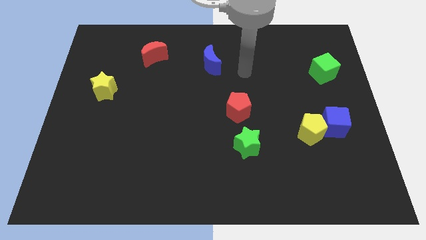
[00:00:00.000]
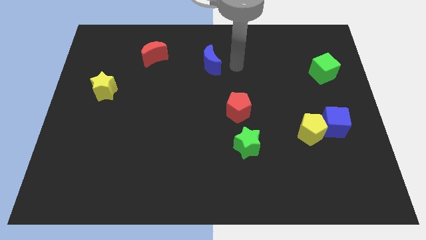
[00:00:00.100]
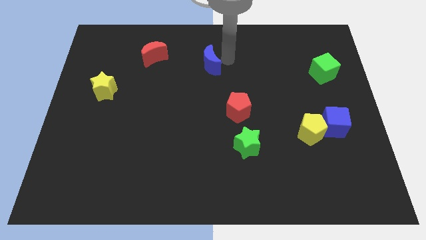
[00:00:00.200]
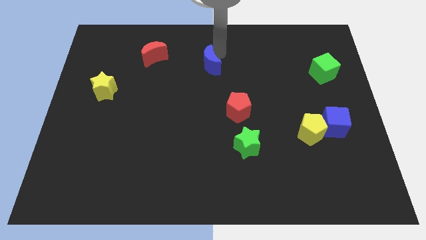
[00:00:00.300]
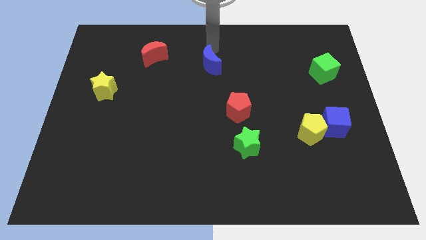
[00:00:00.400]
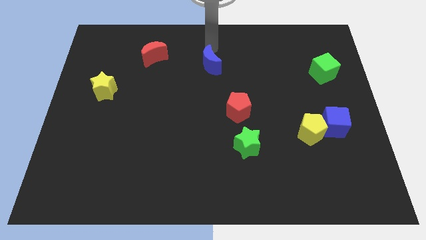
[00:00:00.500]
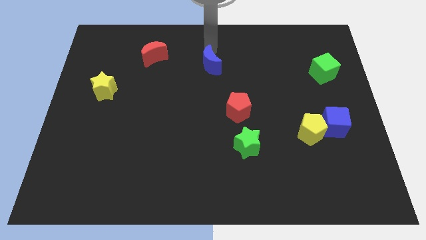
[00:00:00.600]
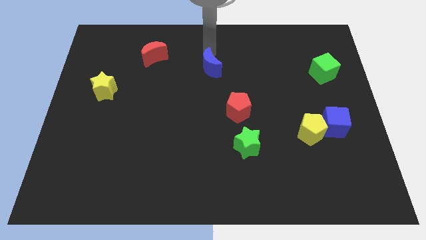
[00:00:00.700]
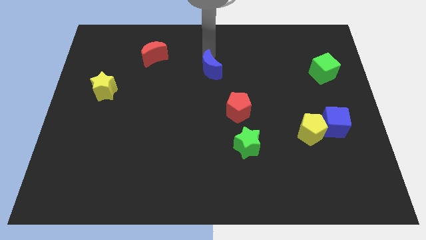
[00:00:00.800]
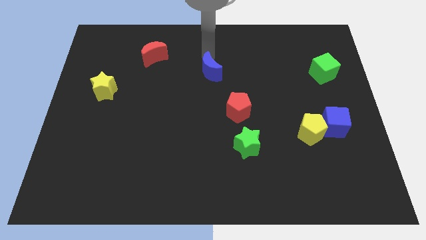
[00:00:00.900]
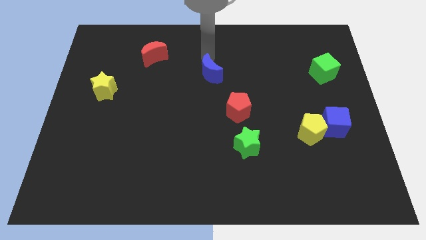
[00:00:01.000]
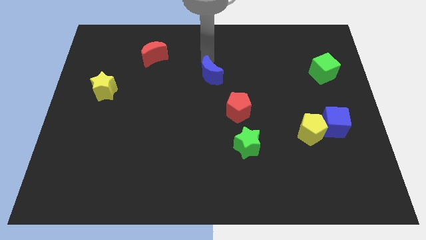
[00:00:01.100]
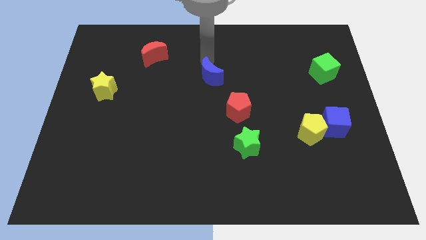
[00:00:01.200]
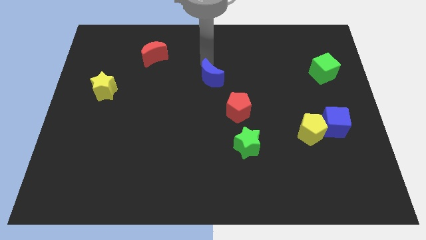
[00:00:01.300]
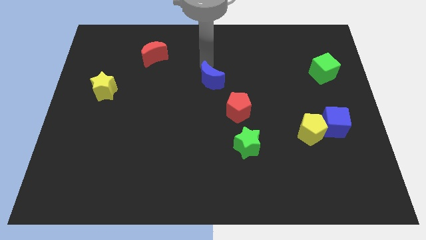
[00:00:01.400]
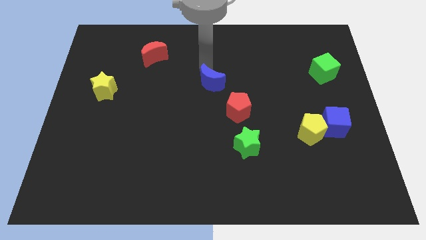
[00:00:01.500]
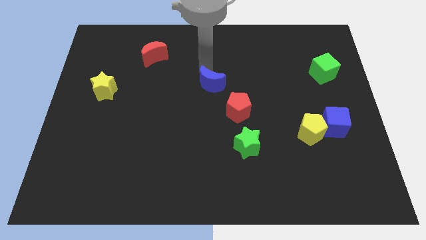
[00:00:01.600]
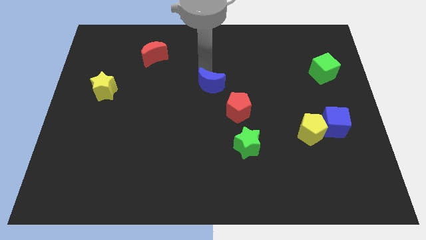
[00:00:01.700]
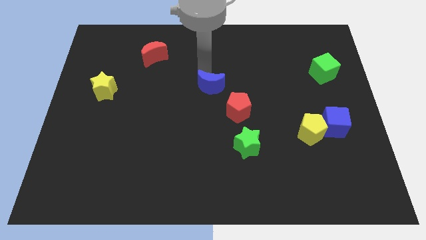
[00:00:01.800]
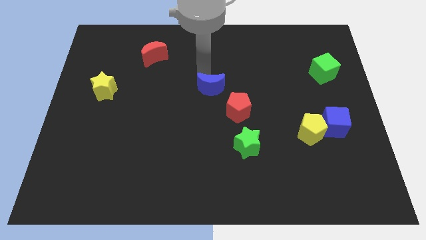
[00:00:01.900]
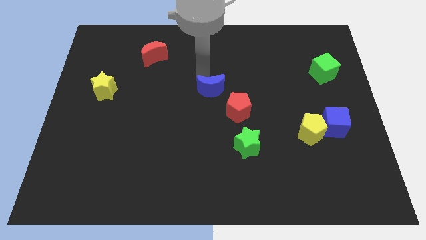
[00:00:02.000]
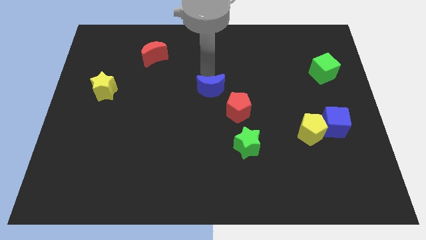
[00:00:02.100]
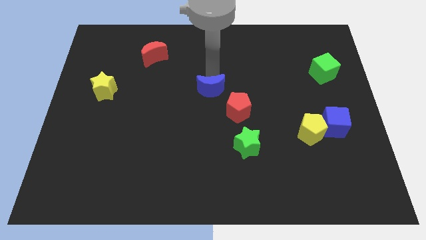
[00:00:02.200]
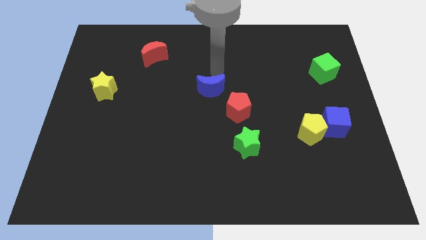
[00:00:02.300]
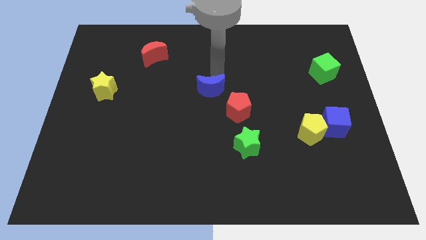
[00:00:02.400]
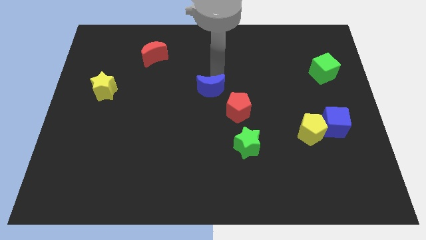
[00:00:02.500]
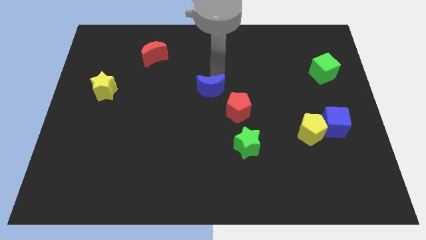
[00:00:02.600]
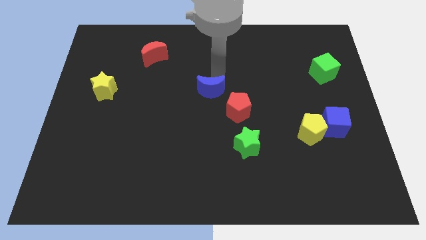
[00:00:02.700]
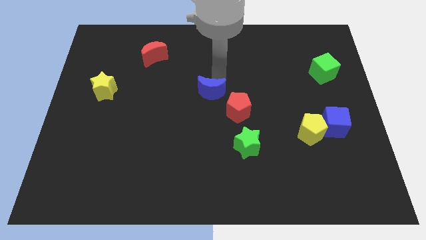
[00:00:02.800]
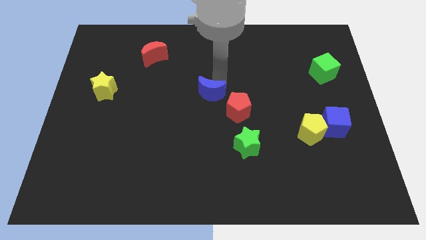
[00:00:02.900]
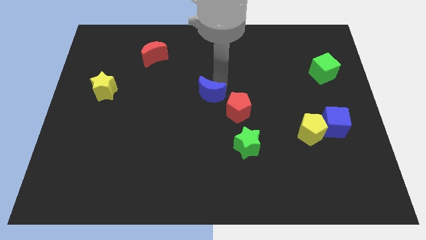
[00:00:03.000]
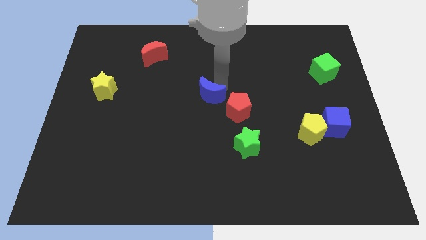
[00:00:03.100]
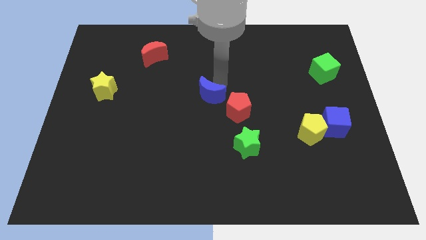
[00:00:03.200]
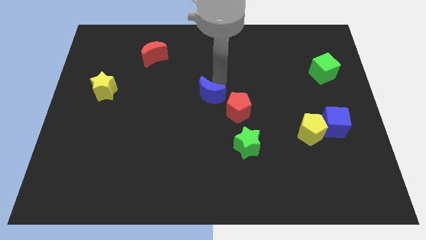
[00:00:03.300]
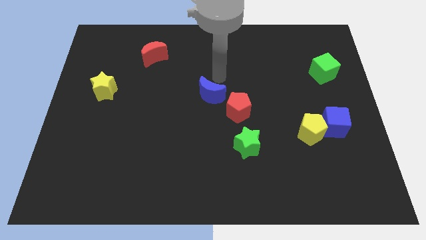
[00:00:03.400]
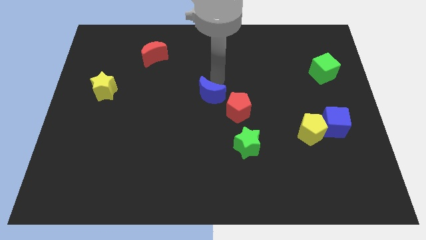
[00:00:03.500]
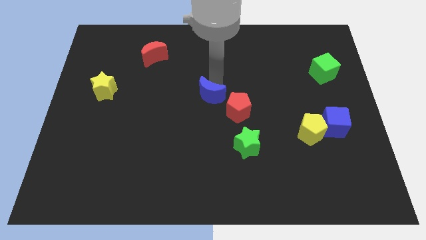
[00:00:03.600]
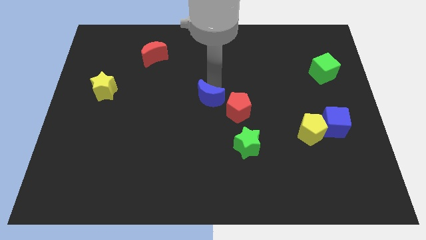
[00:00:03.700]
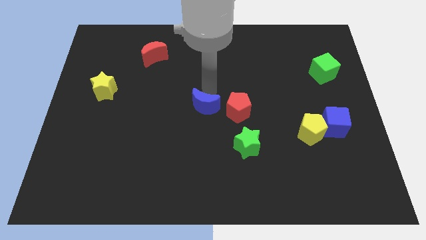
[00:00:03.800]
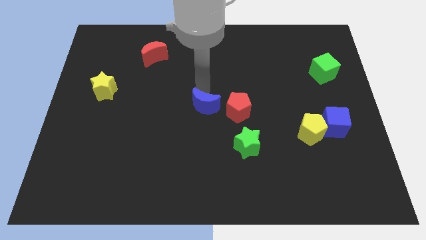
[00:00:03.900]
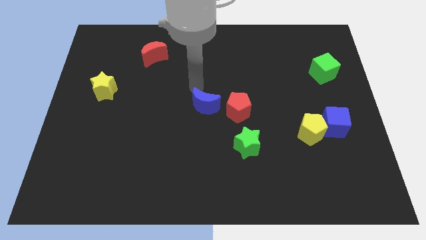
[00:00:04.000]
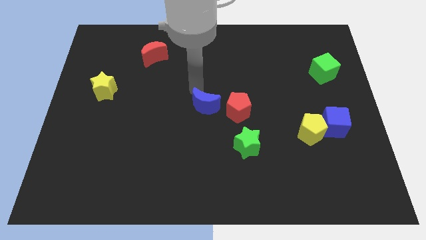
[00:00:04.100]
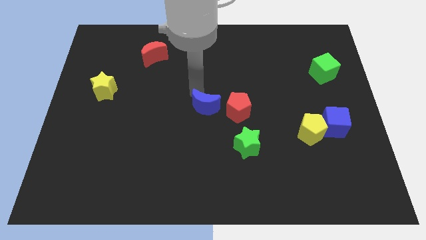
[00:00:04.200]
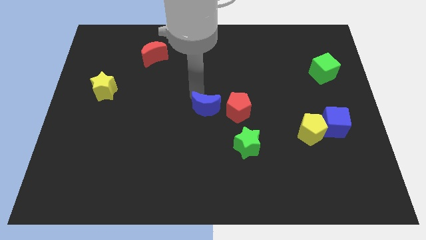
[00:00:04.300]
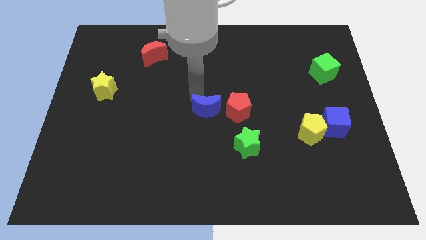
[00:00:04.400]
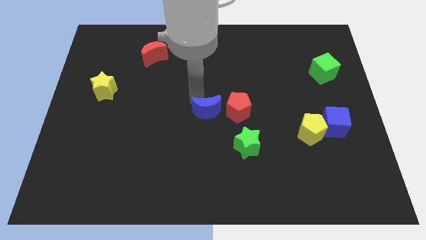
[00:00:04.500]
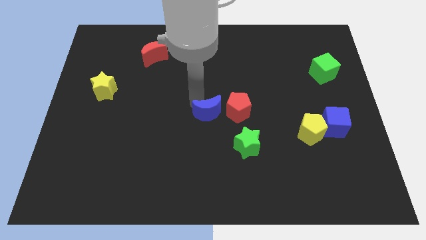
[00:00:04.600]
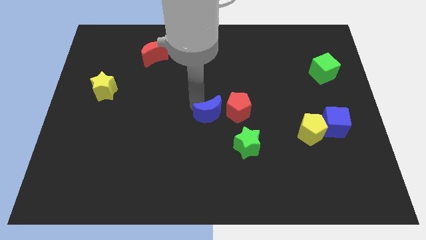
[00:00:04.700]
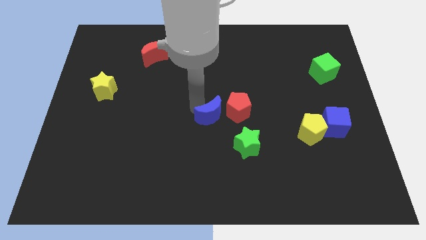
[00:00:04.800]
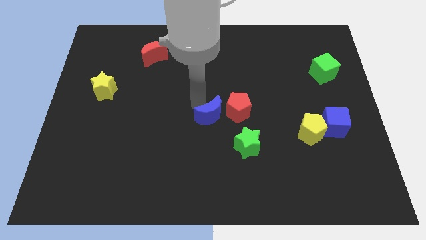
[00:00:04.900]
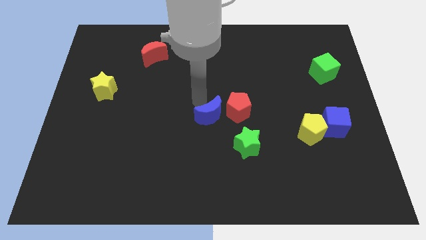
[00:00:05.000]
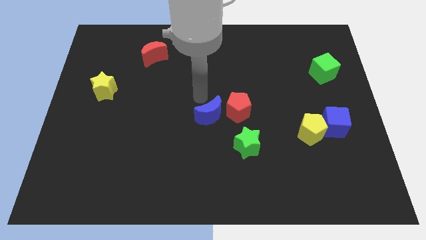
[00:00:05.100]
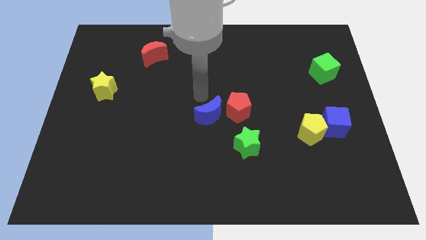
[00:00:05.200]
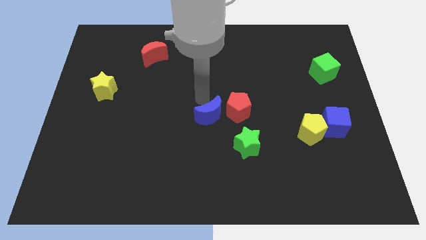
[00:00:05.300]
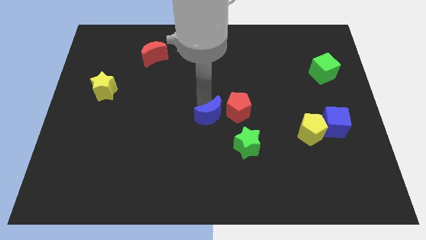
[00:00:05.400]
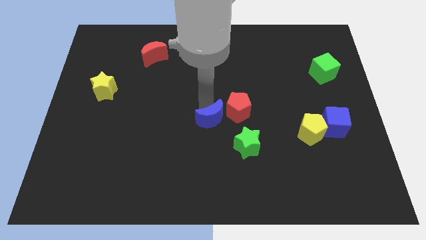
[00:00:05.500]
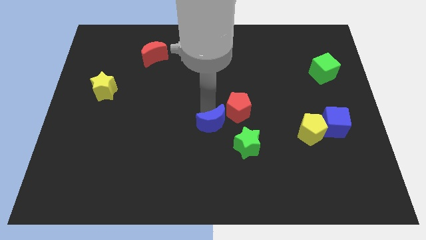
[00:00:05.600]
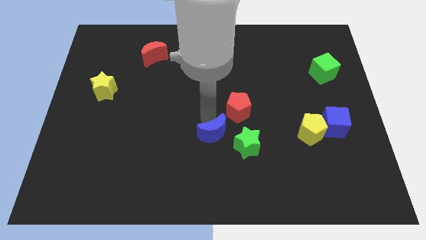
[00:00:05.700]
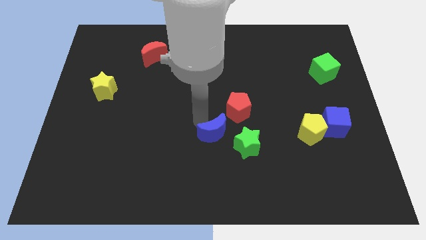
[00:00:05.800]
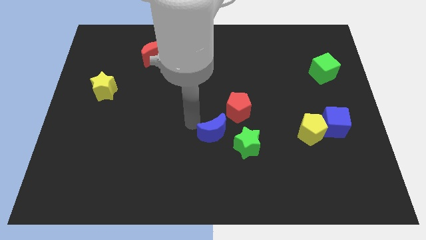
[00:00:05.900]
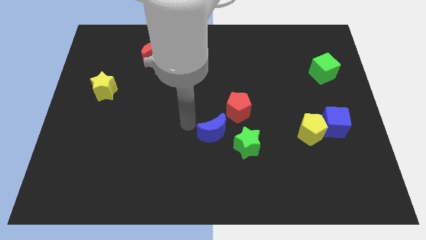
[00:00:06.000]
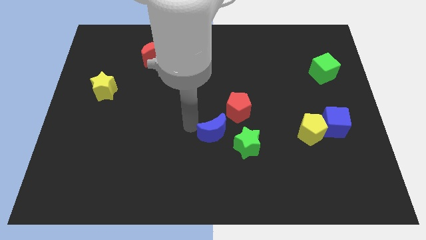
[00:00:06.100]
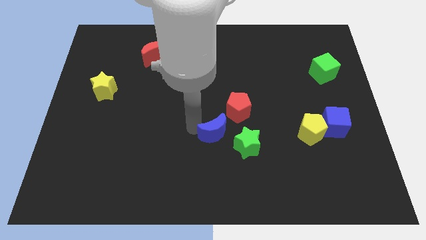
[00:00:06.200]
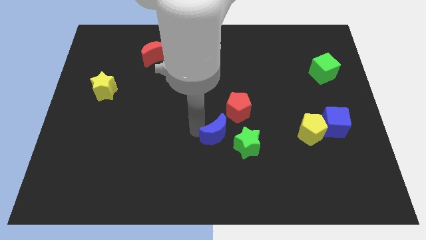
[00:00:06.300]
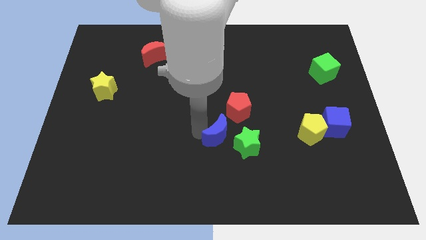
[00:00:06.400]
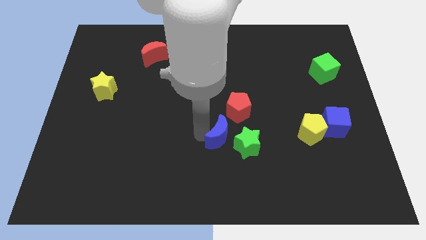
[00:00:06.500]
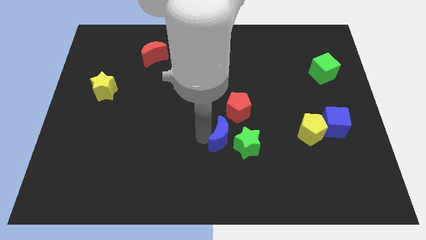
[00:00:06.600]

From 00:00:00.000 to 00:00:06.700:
move the blue moon next to the green star
